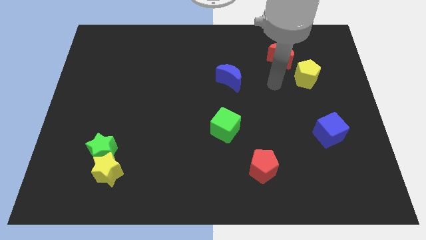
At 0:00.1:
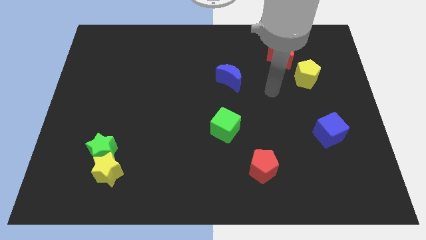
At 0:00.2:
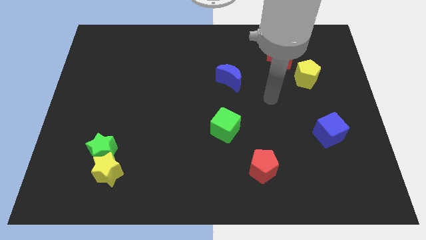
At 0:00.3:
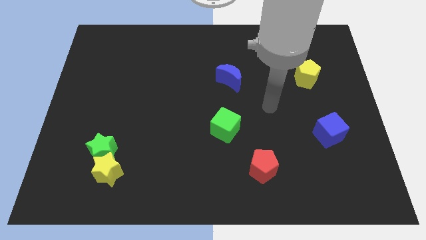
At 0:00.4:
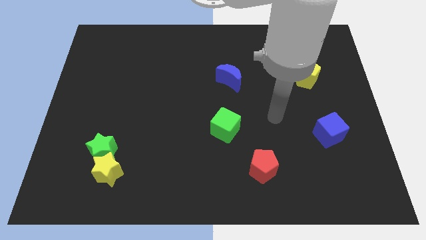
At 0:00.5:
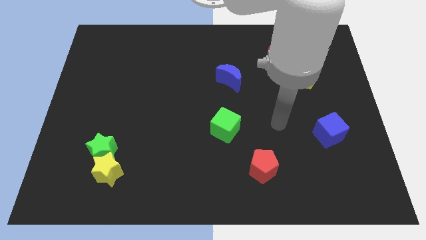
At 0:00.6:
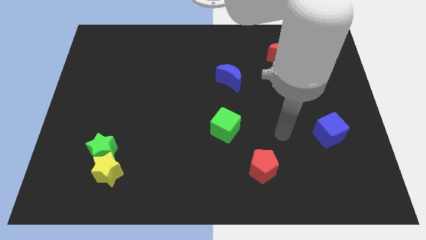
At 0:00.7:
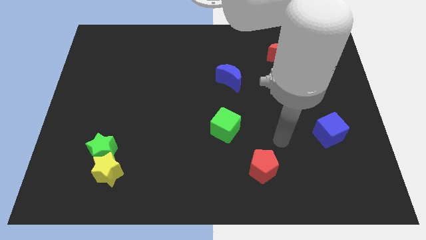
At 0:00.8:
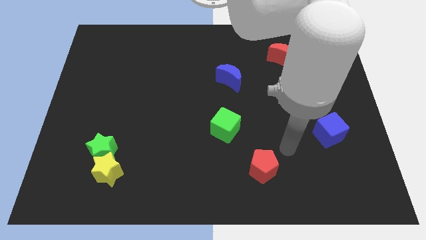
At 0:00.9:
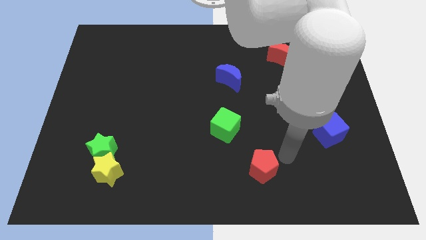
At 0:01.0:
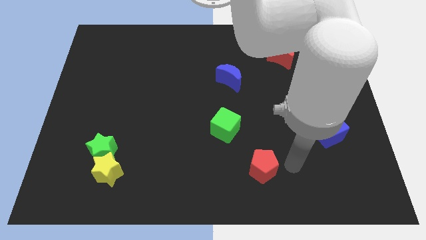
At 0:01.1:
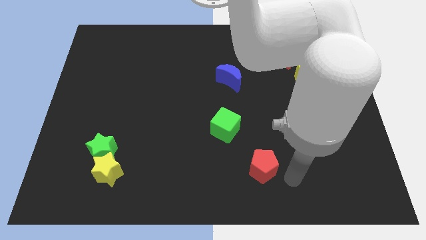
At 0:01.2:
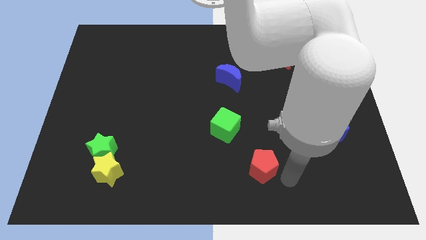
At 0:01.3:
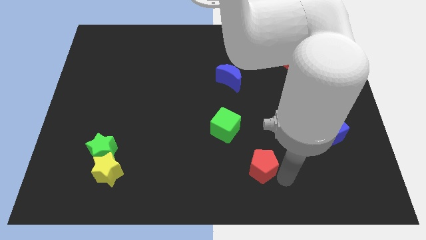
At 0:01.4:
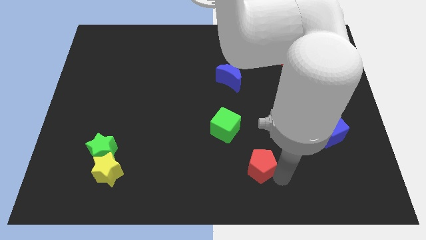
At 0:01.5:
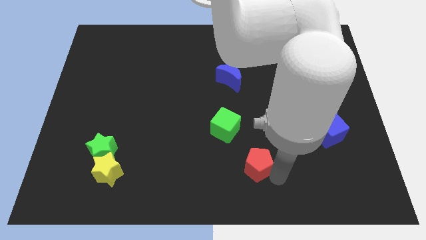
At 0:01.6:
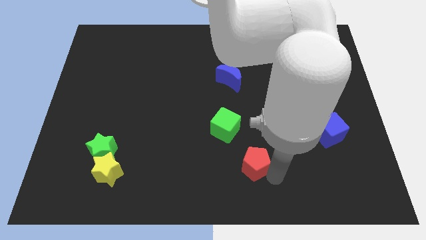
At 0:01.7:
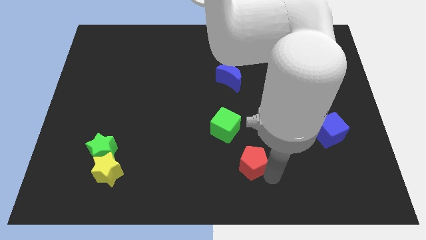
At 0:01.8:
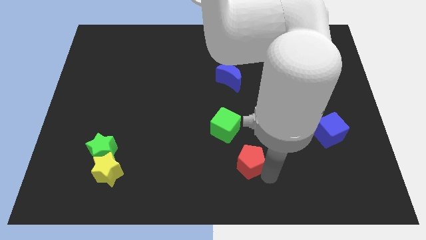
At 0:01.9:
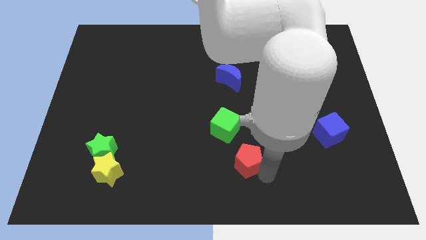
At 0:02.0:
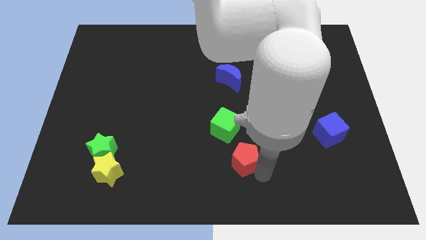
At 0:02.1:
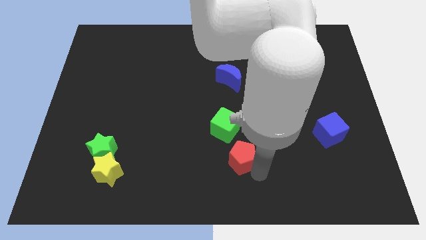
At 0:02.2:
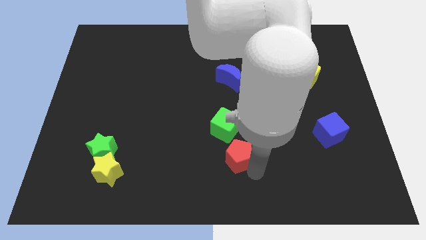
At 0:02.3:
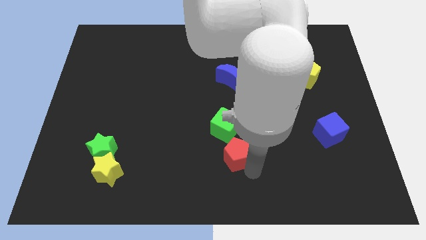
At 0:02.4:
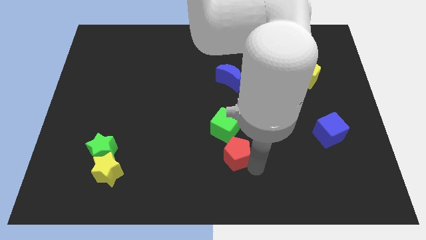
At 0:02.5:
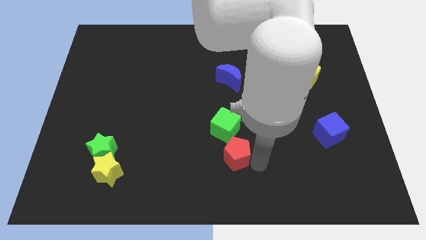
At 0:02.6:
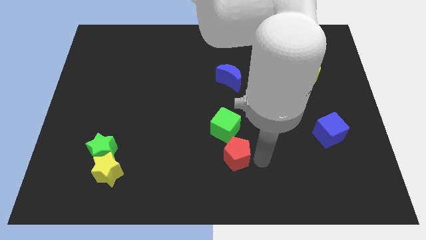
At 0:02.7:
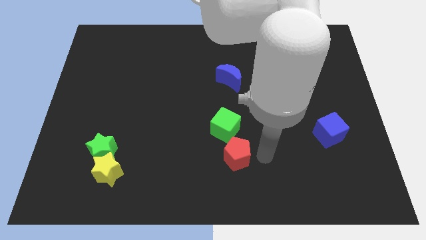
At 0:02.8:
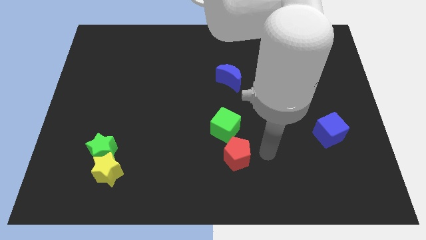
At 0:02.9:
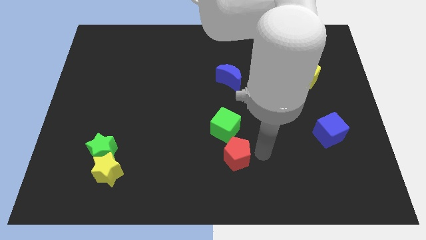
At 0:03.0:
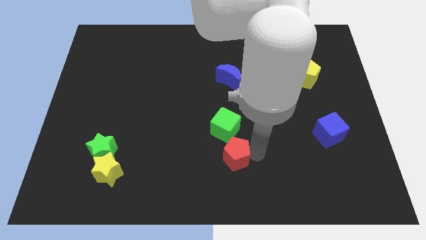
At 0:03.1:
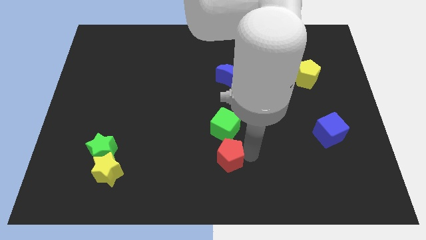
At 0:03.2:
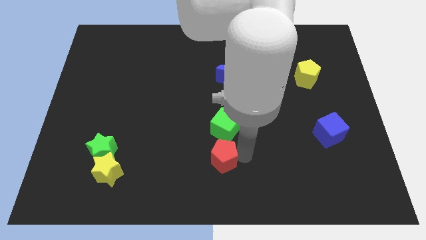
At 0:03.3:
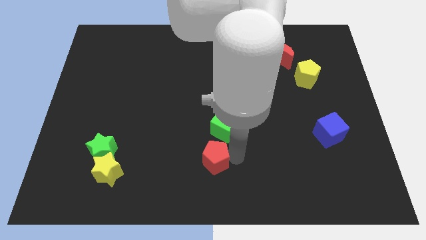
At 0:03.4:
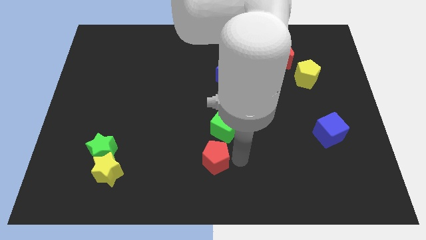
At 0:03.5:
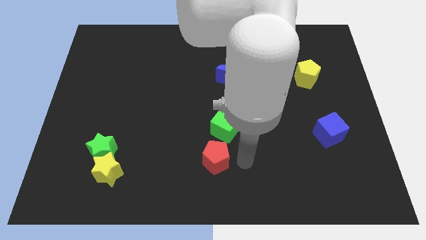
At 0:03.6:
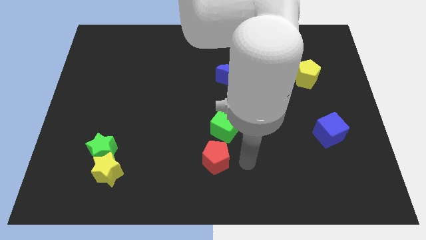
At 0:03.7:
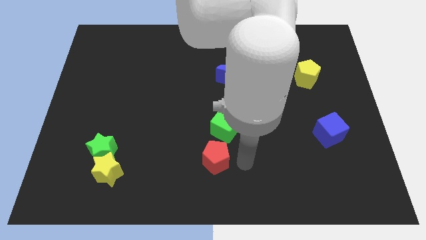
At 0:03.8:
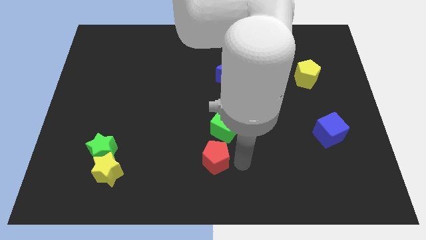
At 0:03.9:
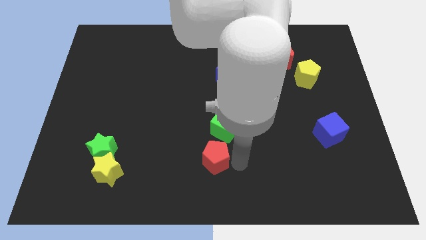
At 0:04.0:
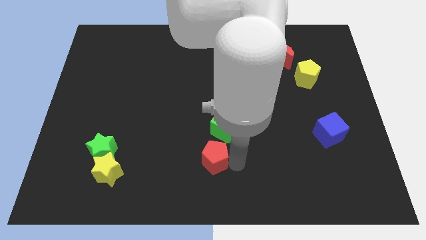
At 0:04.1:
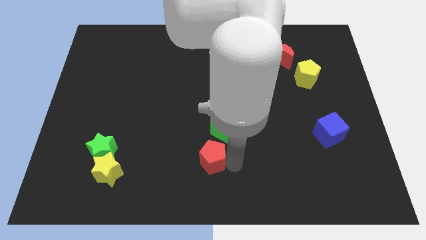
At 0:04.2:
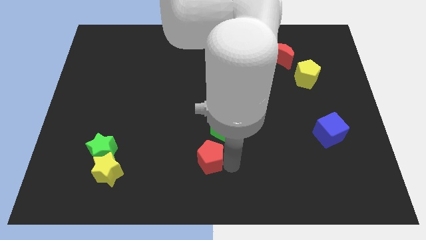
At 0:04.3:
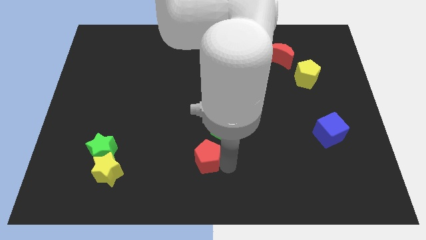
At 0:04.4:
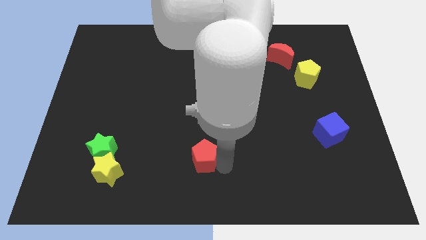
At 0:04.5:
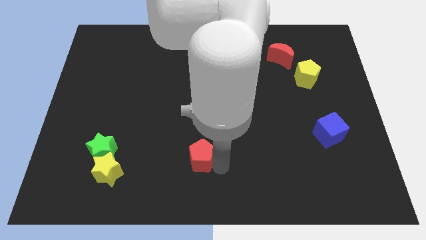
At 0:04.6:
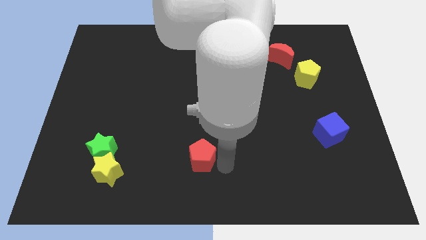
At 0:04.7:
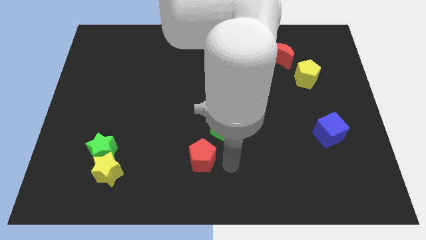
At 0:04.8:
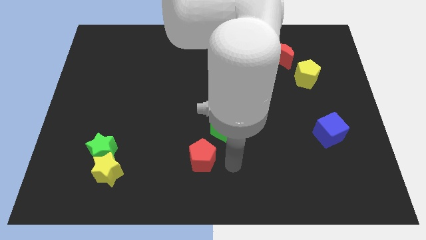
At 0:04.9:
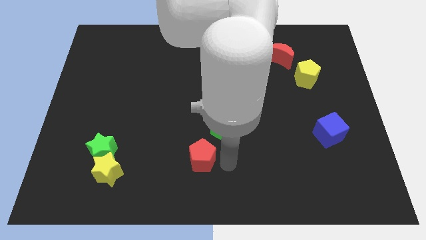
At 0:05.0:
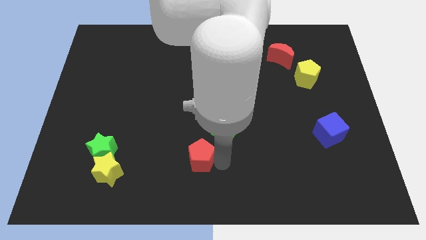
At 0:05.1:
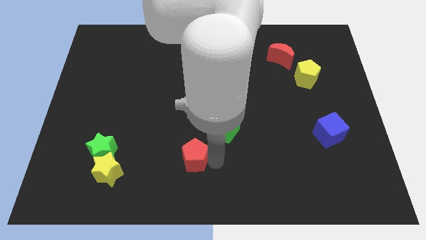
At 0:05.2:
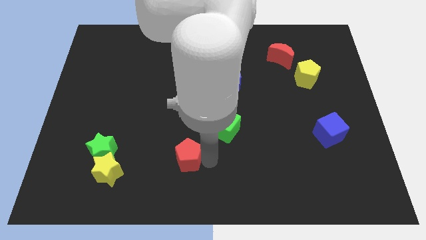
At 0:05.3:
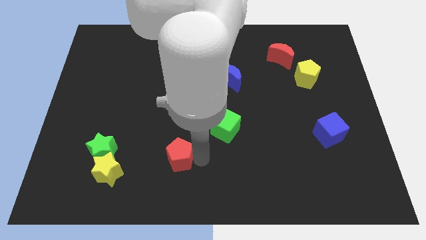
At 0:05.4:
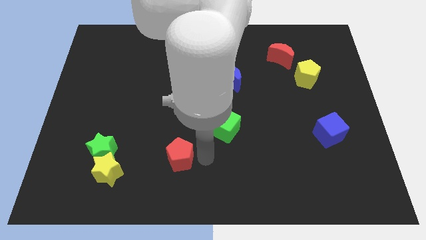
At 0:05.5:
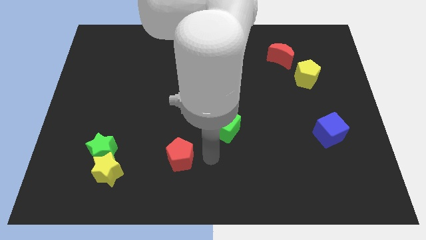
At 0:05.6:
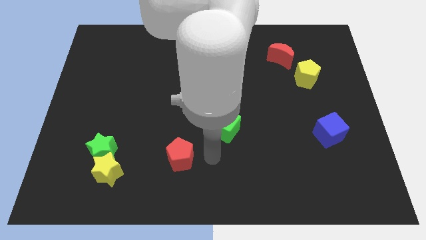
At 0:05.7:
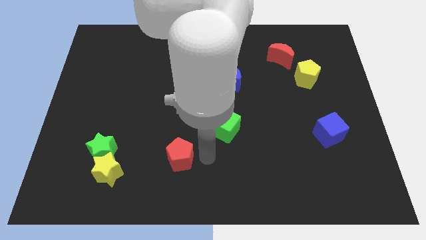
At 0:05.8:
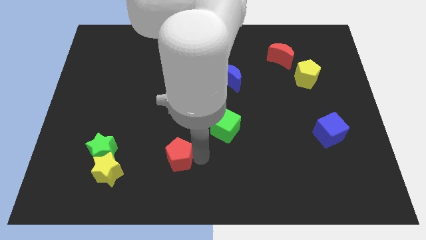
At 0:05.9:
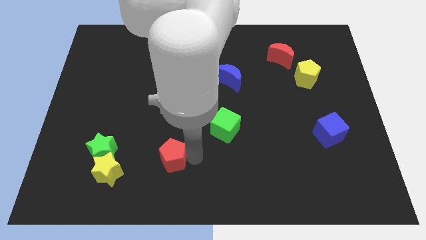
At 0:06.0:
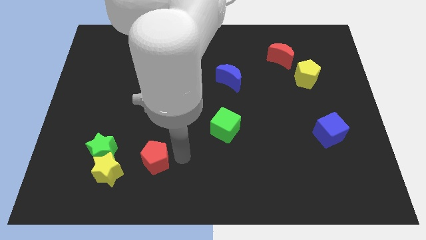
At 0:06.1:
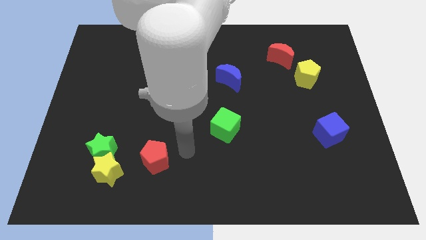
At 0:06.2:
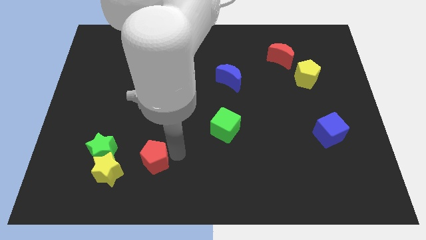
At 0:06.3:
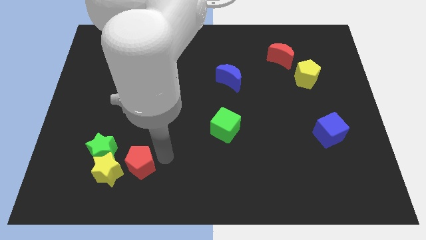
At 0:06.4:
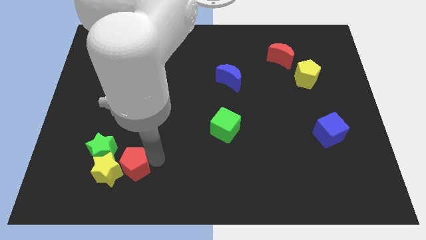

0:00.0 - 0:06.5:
put the red pentagon to the yellow star
